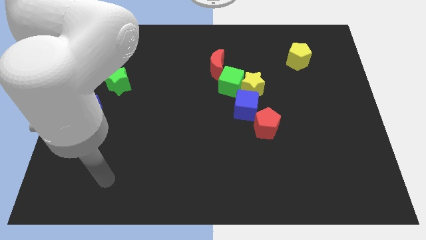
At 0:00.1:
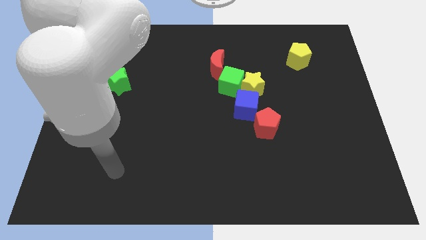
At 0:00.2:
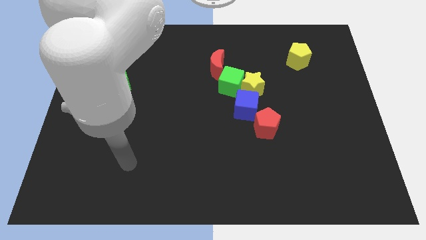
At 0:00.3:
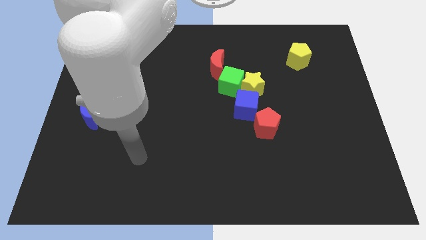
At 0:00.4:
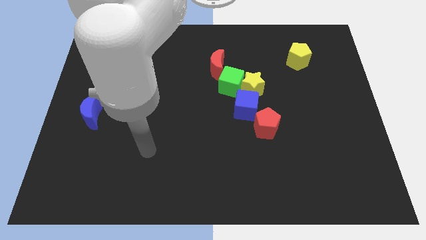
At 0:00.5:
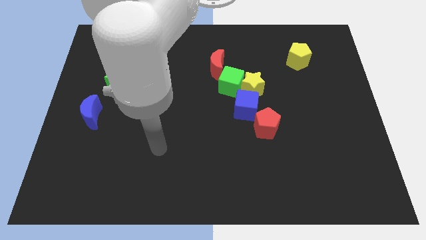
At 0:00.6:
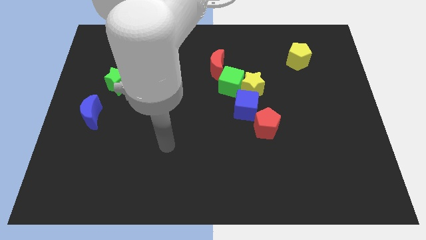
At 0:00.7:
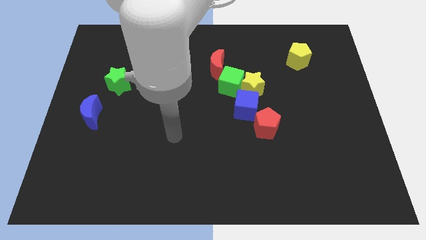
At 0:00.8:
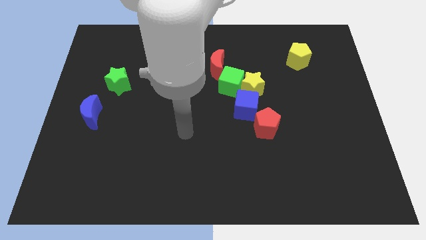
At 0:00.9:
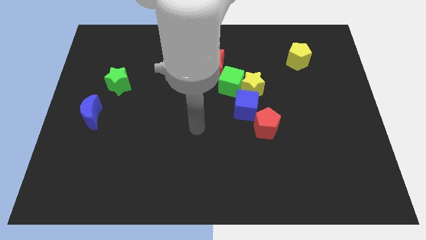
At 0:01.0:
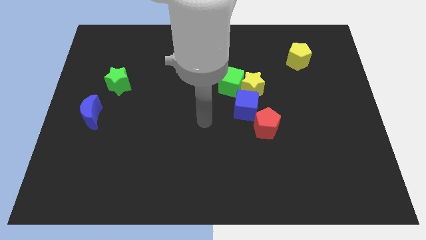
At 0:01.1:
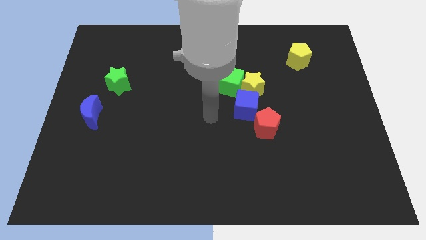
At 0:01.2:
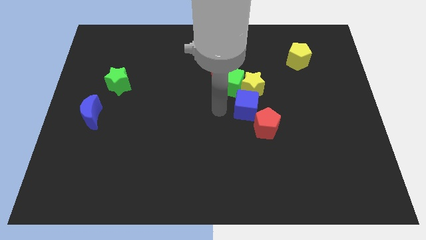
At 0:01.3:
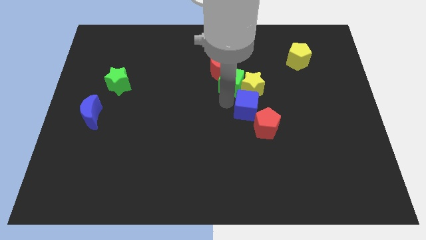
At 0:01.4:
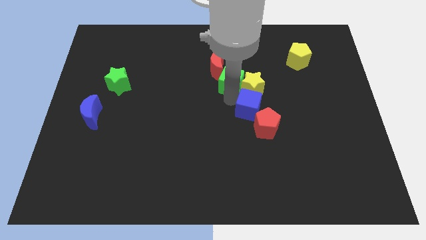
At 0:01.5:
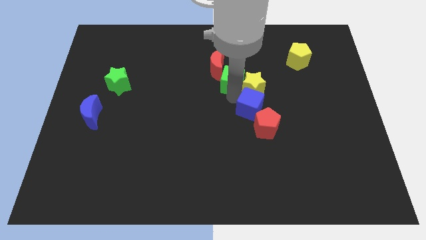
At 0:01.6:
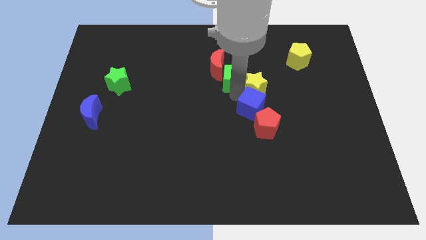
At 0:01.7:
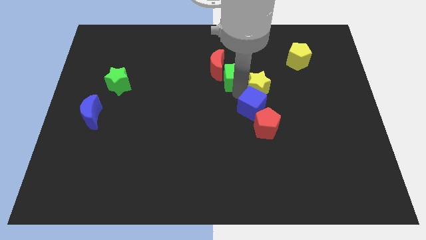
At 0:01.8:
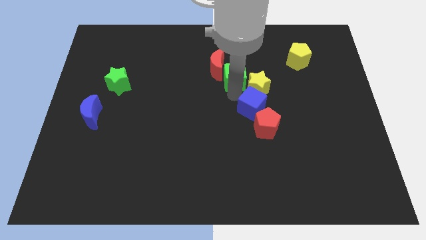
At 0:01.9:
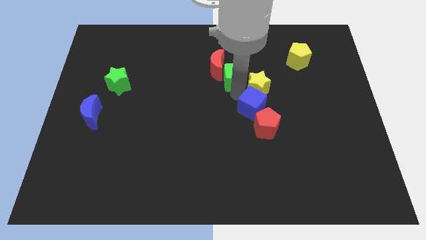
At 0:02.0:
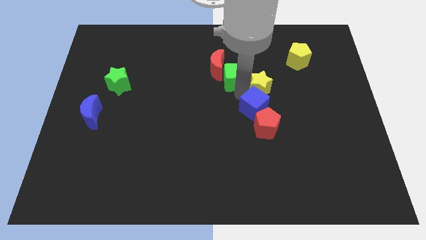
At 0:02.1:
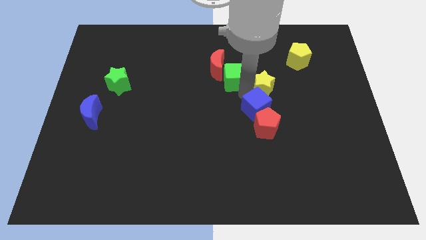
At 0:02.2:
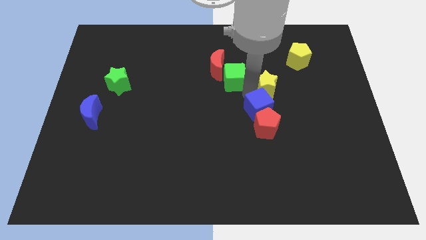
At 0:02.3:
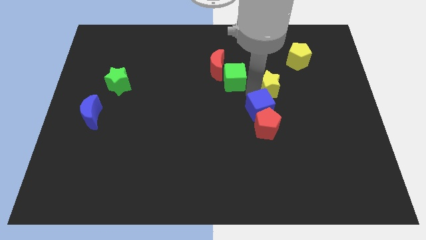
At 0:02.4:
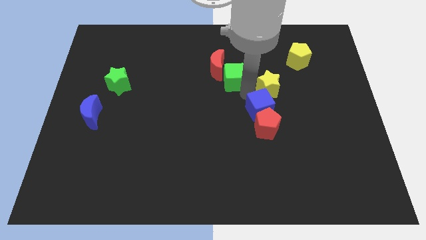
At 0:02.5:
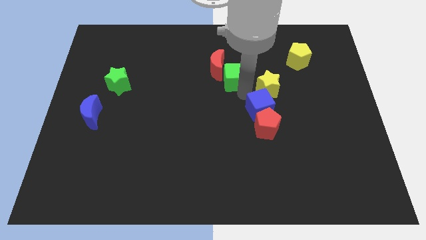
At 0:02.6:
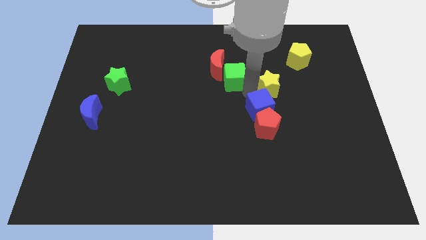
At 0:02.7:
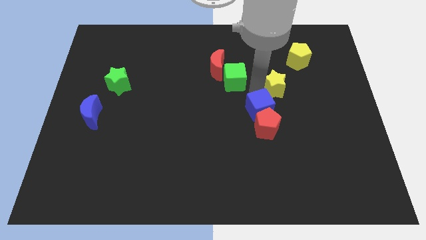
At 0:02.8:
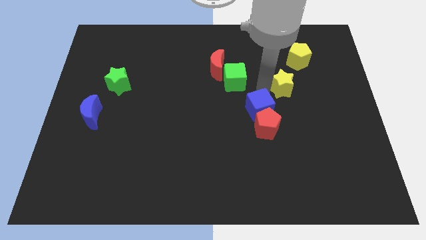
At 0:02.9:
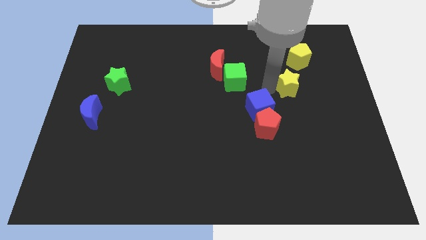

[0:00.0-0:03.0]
separate the yellow star from the green cube and blue cube

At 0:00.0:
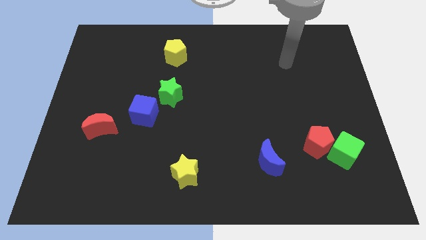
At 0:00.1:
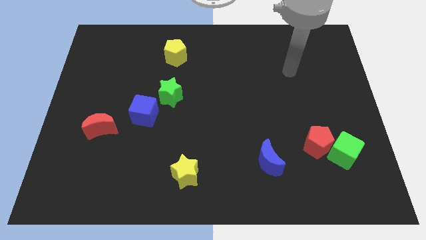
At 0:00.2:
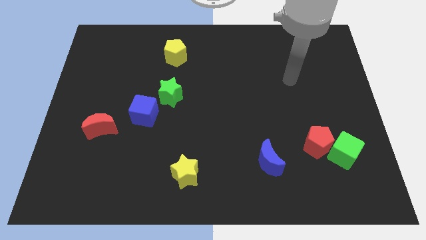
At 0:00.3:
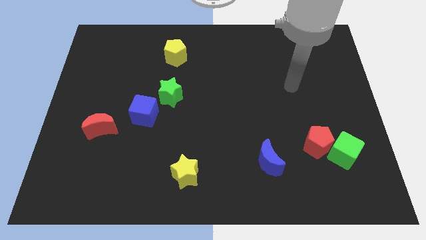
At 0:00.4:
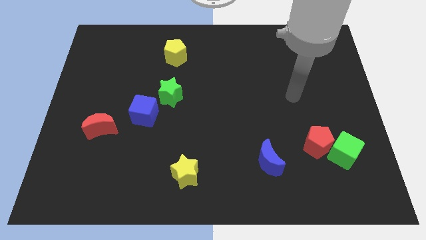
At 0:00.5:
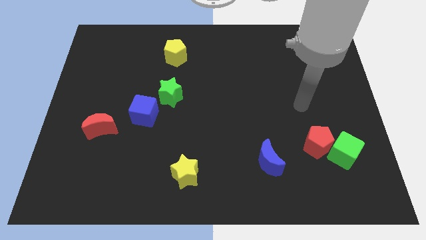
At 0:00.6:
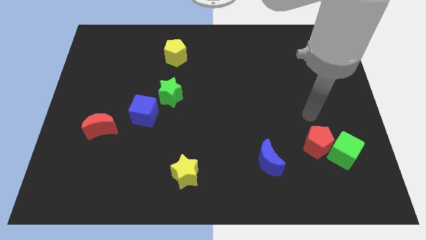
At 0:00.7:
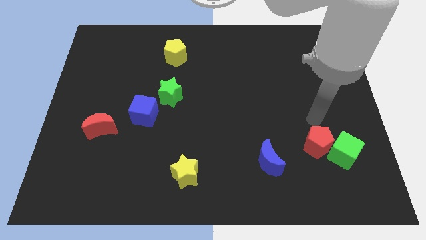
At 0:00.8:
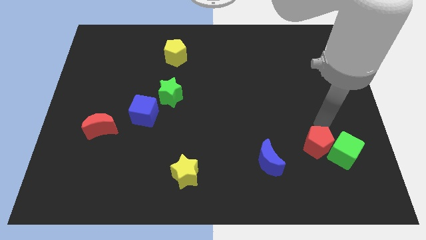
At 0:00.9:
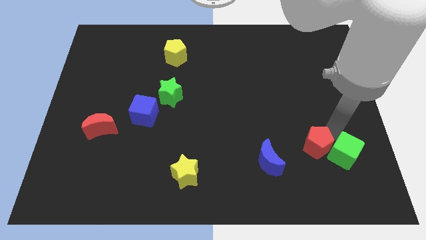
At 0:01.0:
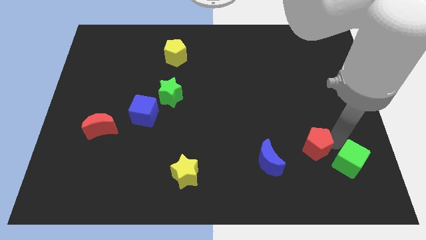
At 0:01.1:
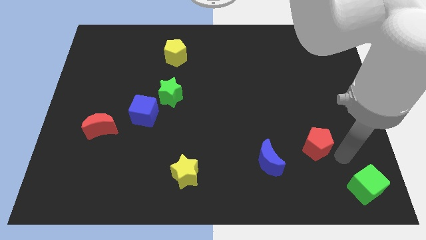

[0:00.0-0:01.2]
move the red pentagon away from the green cube

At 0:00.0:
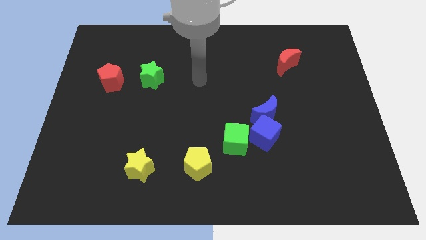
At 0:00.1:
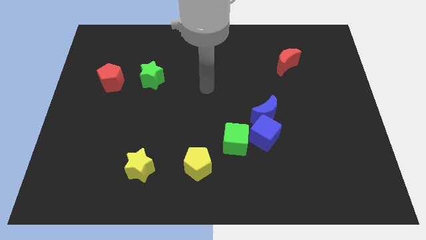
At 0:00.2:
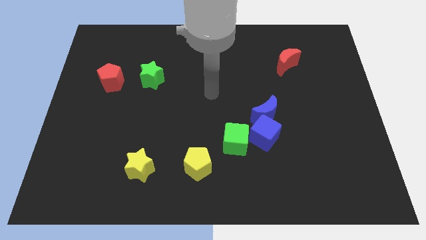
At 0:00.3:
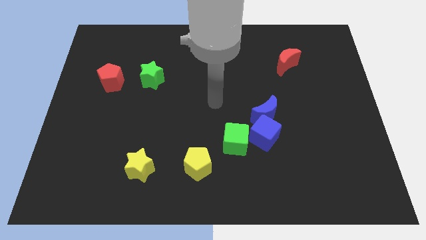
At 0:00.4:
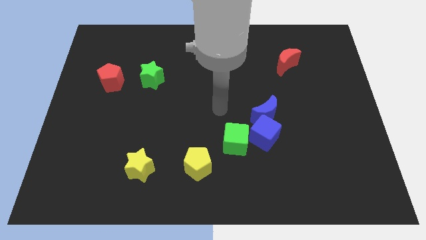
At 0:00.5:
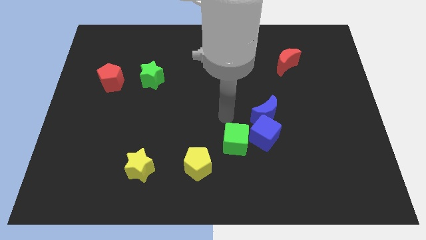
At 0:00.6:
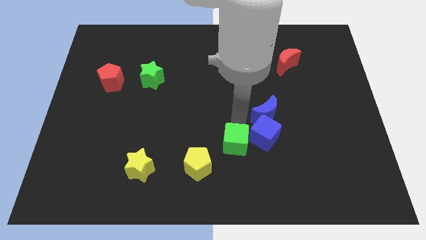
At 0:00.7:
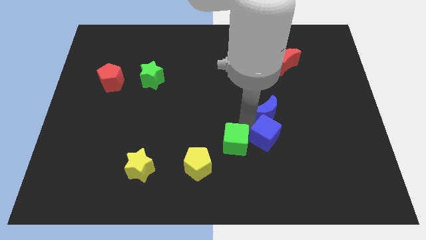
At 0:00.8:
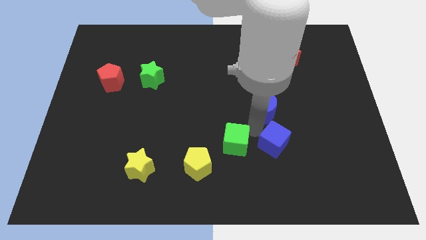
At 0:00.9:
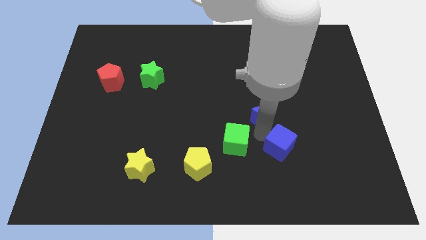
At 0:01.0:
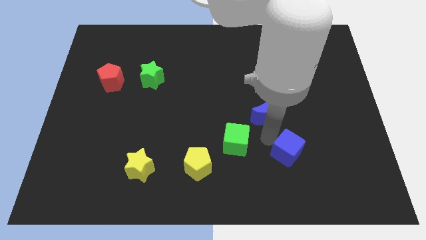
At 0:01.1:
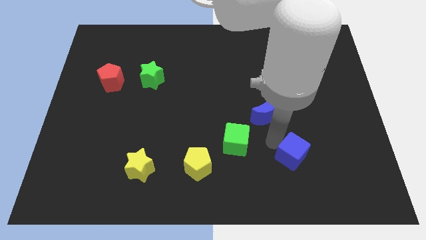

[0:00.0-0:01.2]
pull the blue cube apart from the blue moon and green cube

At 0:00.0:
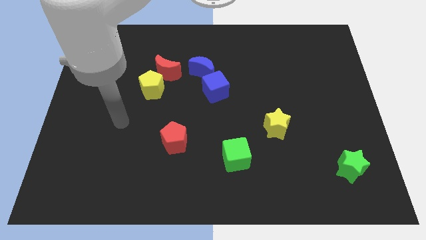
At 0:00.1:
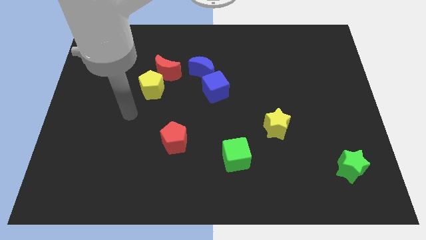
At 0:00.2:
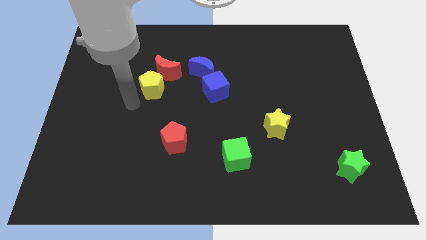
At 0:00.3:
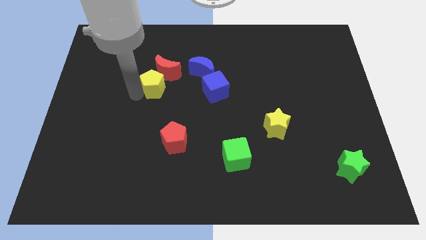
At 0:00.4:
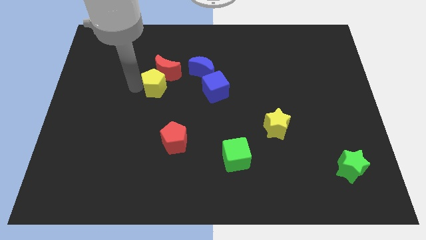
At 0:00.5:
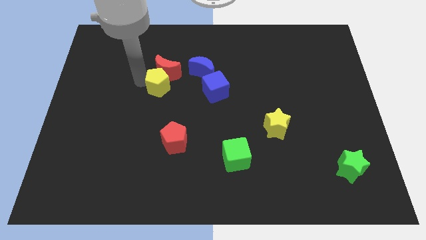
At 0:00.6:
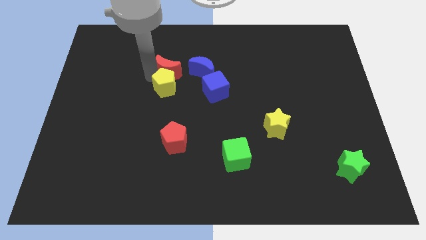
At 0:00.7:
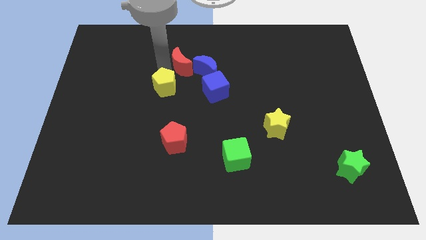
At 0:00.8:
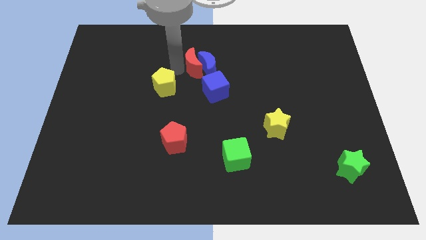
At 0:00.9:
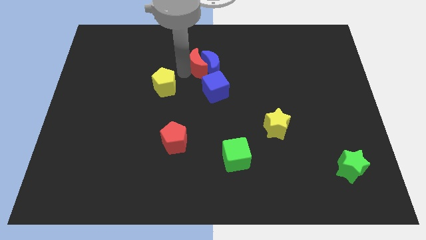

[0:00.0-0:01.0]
move the yellow pentagon away from the red moon

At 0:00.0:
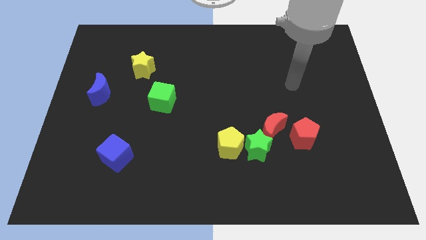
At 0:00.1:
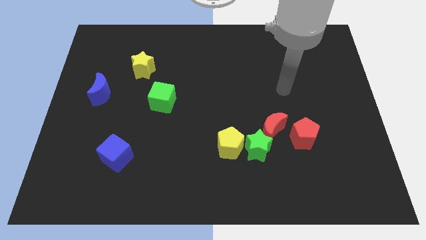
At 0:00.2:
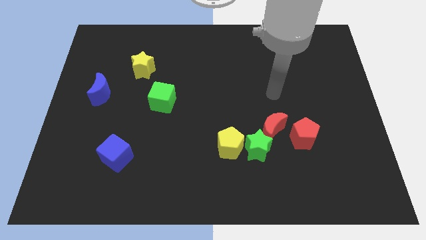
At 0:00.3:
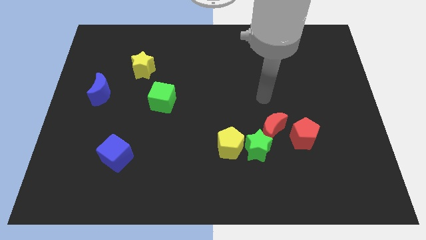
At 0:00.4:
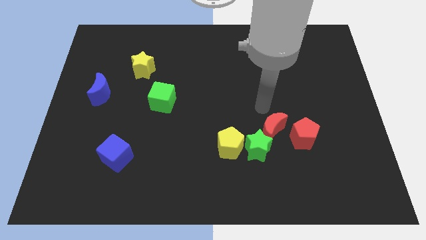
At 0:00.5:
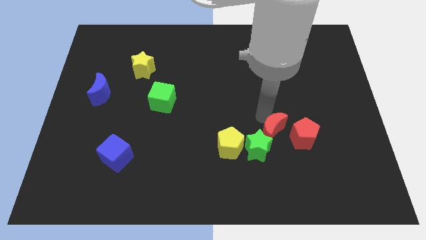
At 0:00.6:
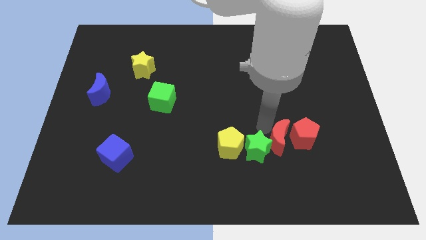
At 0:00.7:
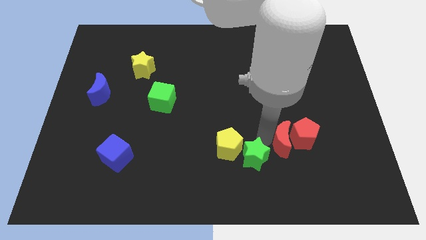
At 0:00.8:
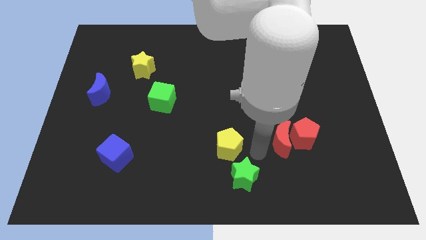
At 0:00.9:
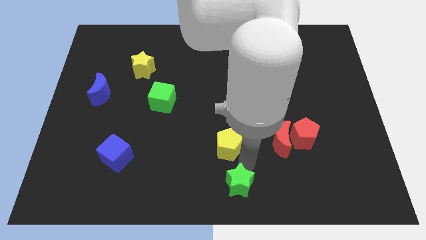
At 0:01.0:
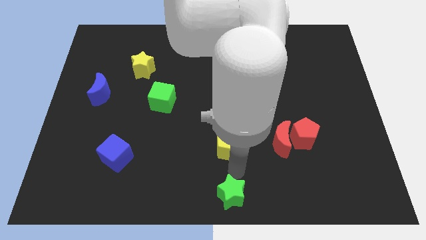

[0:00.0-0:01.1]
pull the yellow pentagon apart from the green star

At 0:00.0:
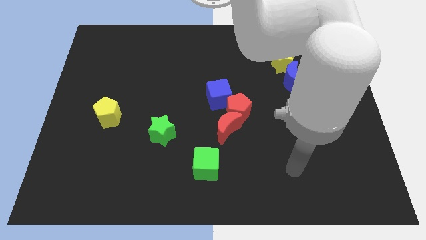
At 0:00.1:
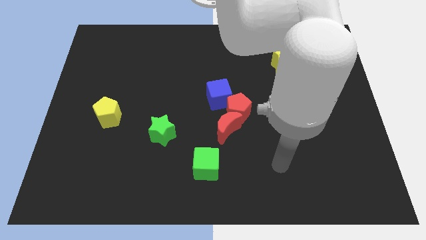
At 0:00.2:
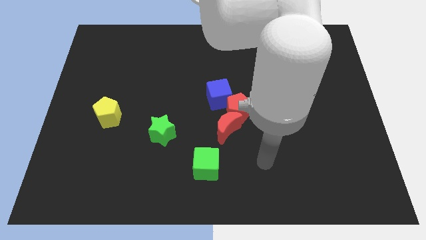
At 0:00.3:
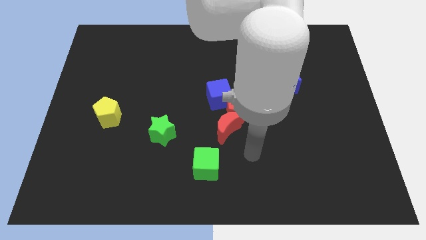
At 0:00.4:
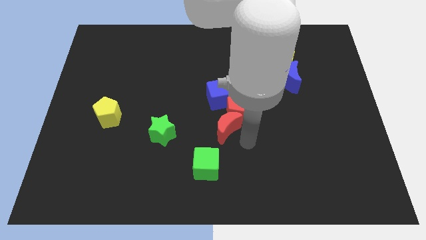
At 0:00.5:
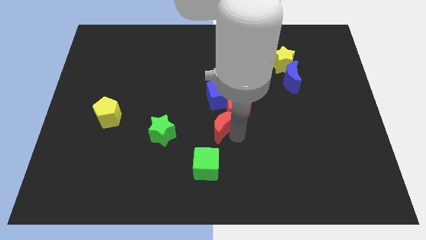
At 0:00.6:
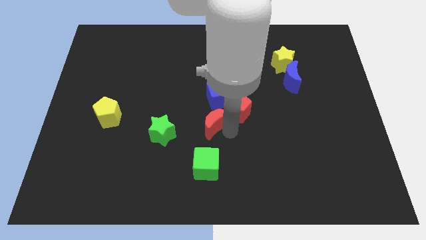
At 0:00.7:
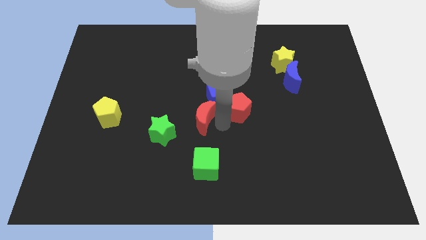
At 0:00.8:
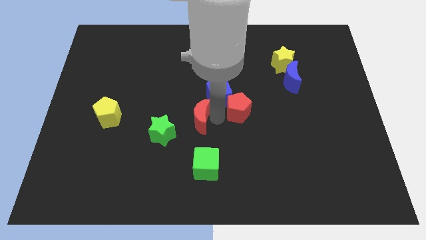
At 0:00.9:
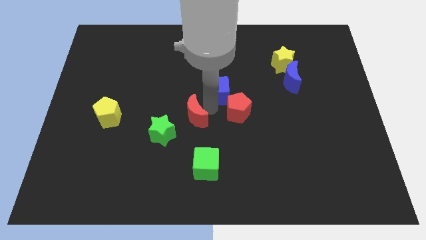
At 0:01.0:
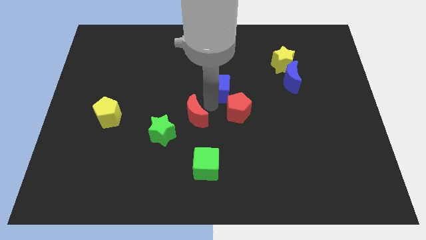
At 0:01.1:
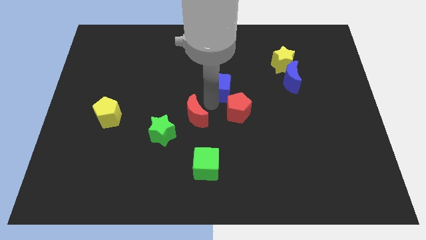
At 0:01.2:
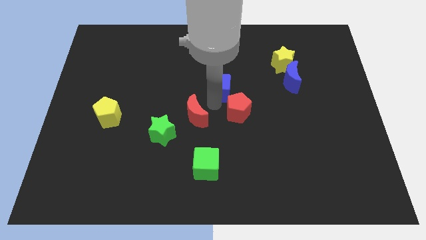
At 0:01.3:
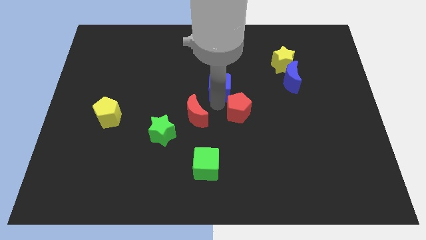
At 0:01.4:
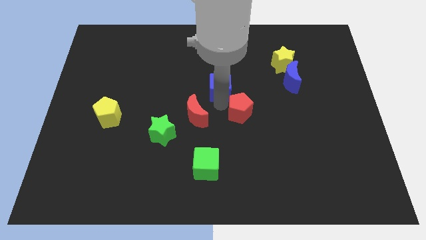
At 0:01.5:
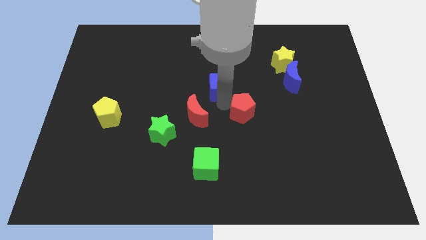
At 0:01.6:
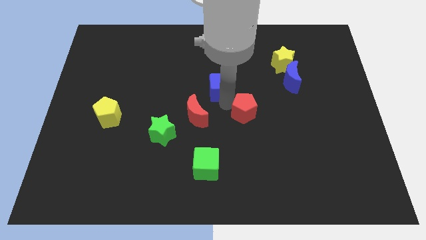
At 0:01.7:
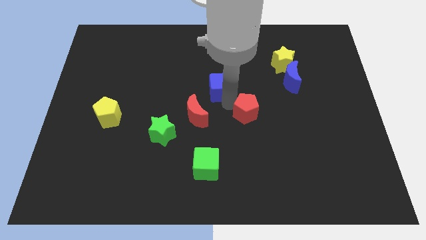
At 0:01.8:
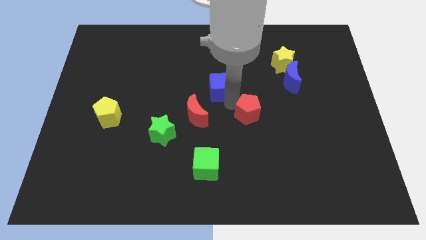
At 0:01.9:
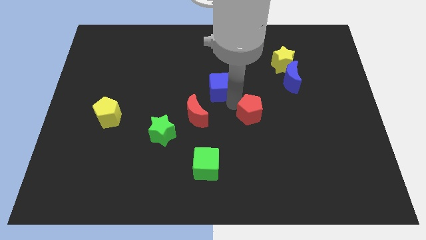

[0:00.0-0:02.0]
pull the red pentagon apart from the red moon and blue cube
